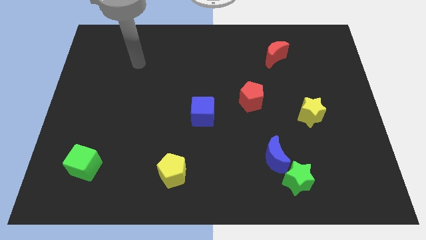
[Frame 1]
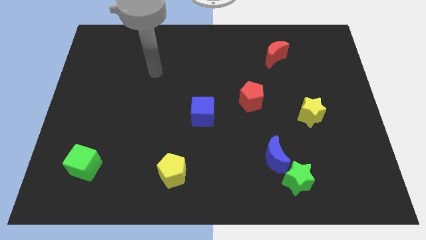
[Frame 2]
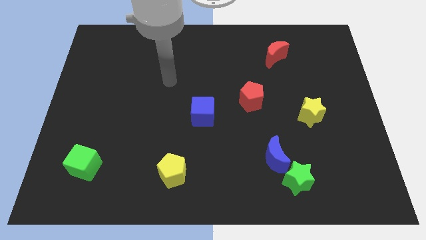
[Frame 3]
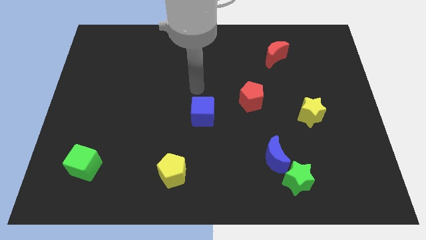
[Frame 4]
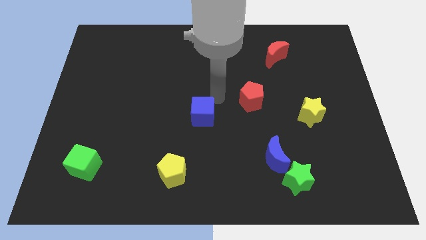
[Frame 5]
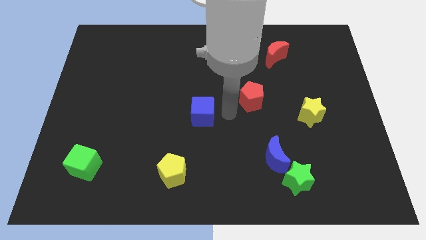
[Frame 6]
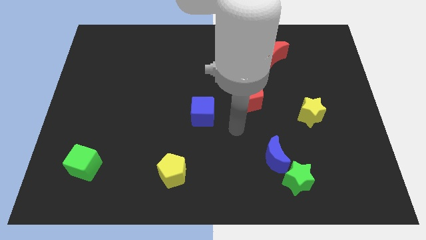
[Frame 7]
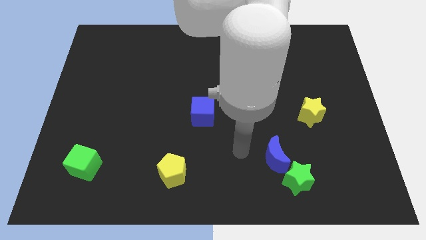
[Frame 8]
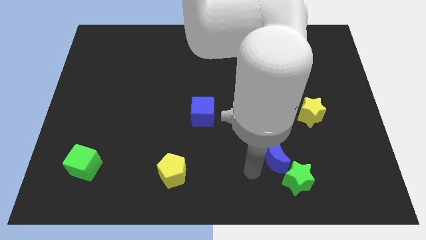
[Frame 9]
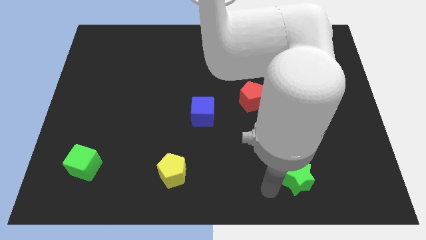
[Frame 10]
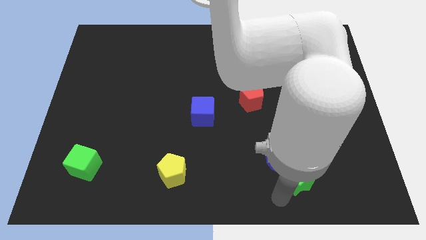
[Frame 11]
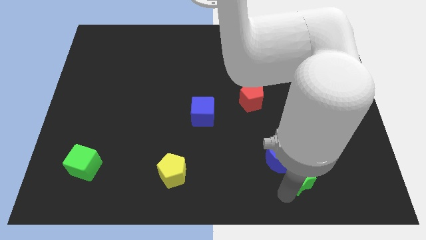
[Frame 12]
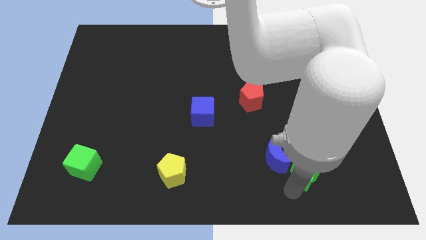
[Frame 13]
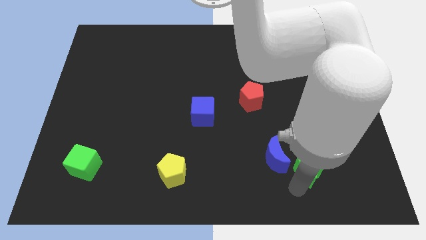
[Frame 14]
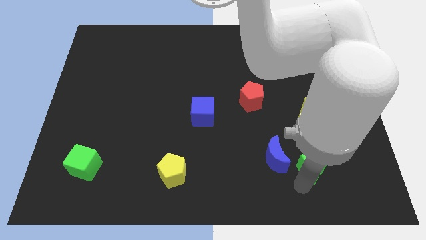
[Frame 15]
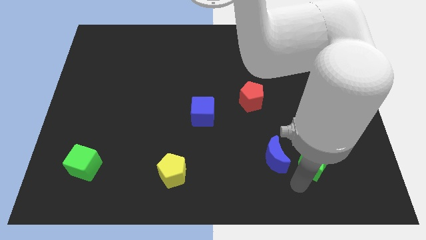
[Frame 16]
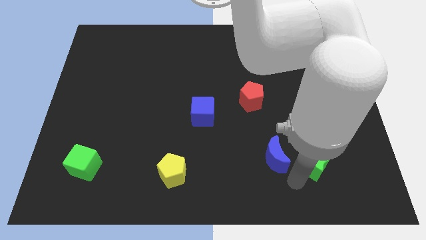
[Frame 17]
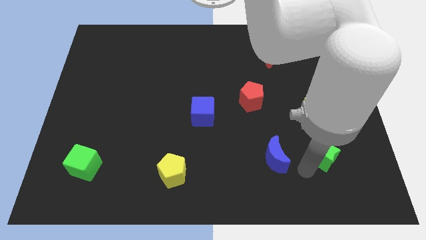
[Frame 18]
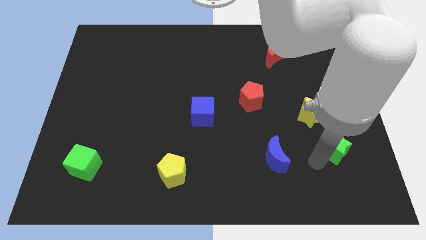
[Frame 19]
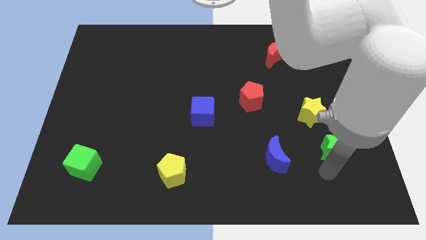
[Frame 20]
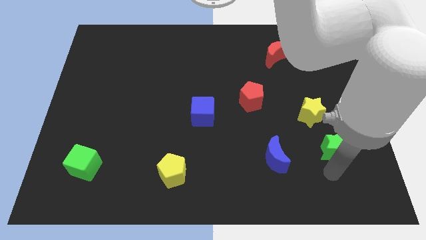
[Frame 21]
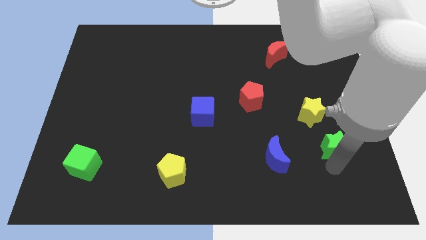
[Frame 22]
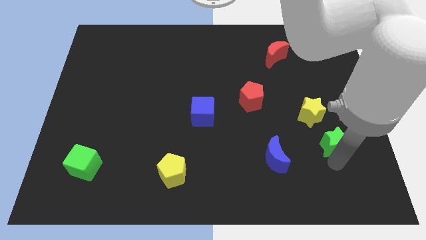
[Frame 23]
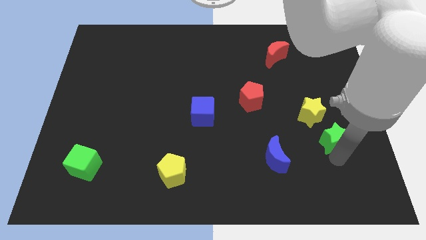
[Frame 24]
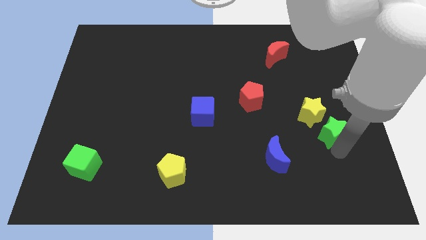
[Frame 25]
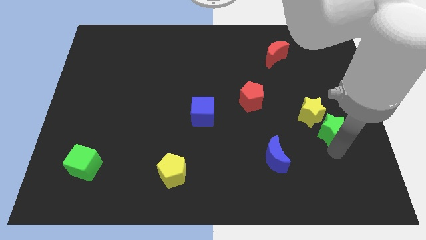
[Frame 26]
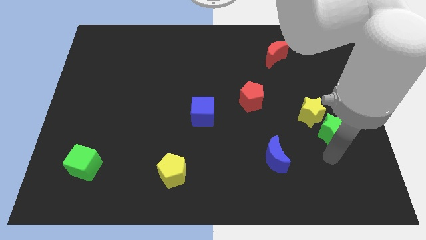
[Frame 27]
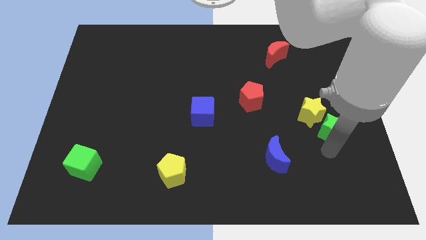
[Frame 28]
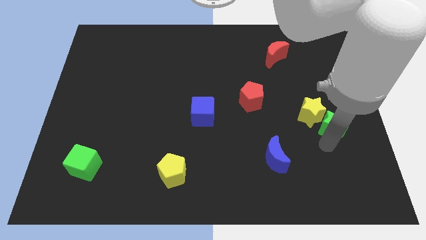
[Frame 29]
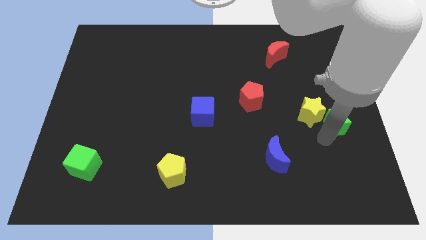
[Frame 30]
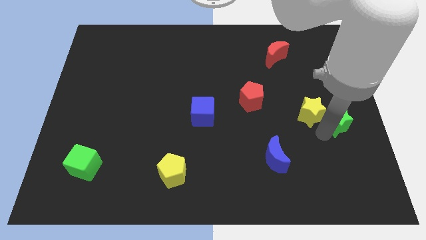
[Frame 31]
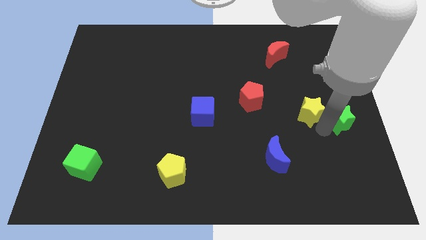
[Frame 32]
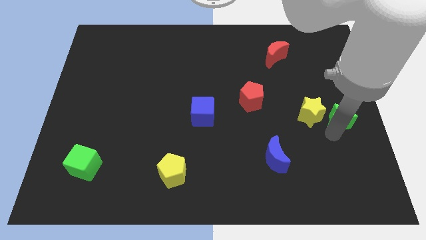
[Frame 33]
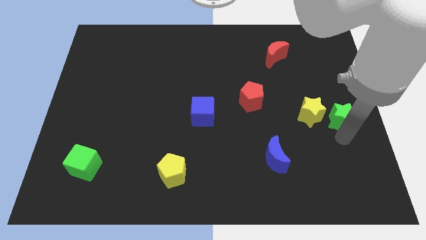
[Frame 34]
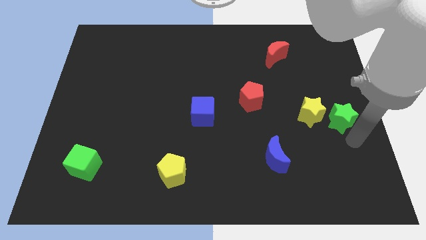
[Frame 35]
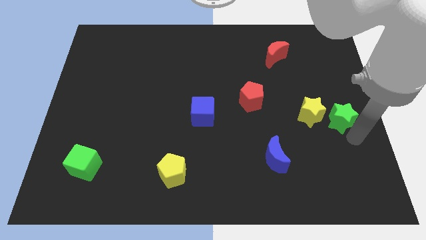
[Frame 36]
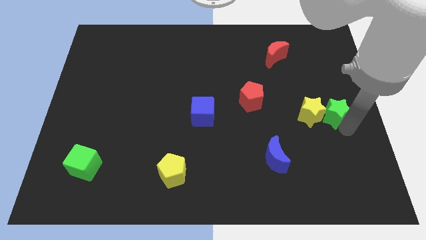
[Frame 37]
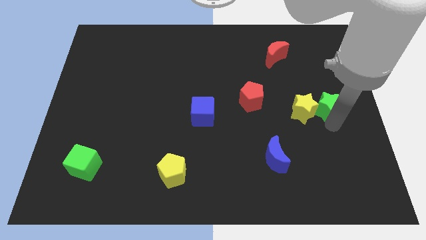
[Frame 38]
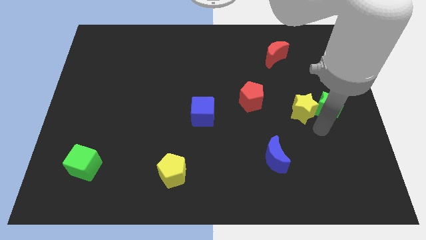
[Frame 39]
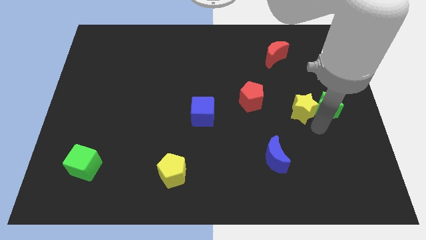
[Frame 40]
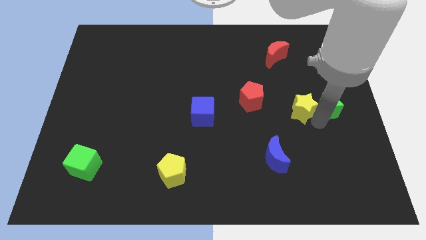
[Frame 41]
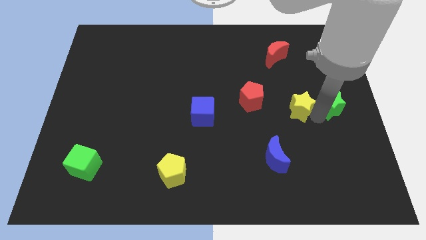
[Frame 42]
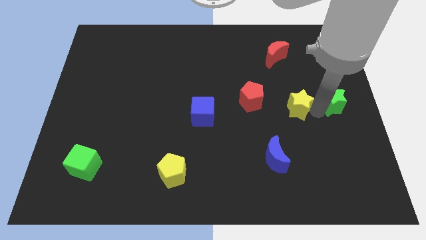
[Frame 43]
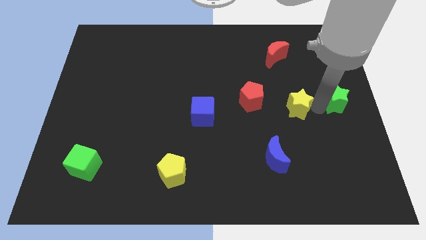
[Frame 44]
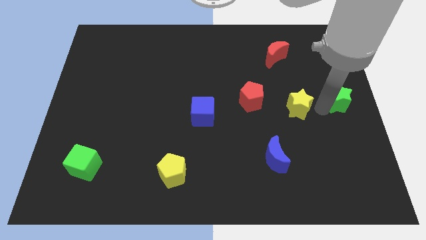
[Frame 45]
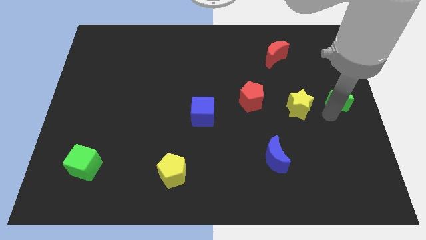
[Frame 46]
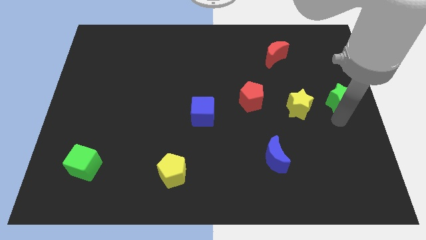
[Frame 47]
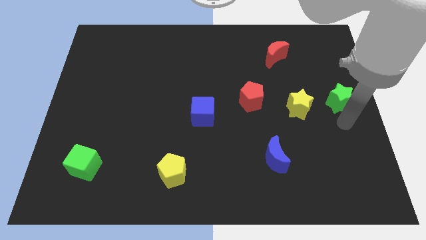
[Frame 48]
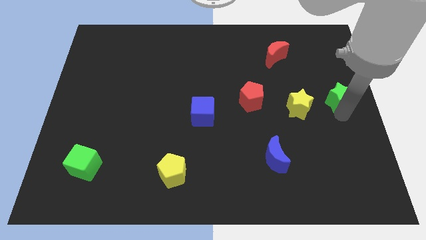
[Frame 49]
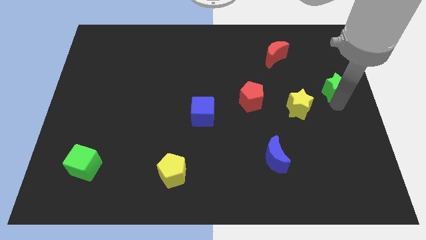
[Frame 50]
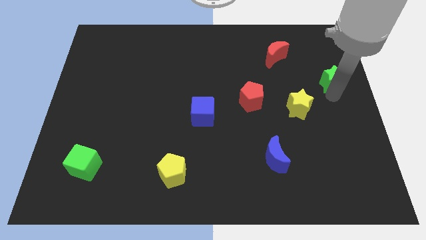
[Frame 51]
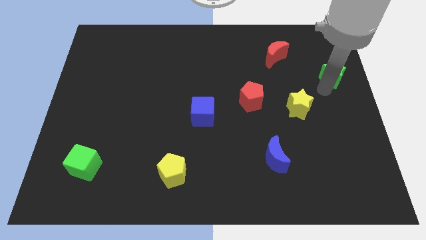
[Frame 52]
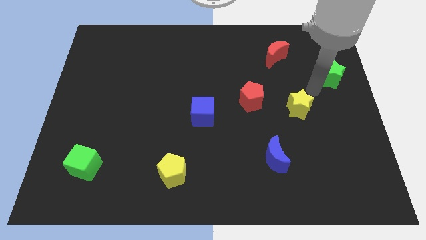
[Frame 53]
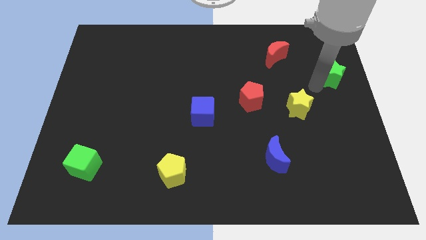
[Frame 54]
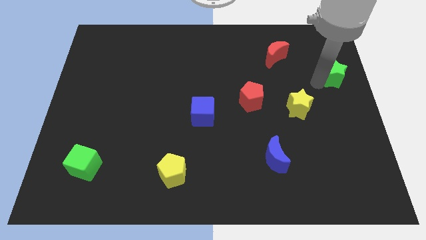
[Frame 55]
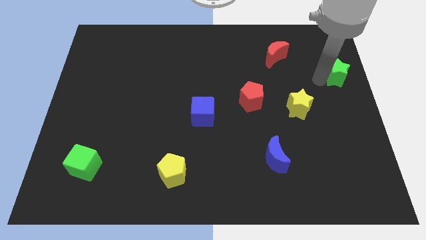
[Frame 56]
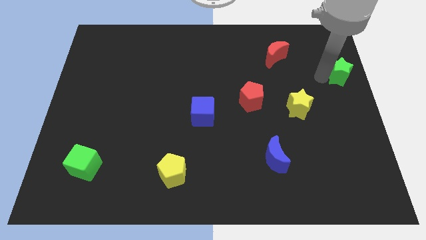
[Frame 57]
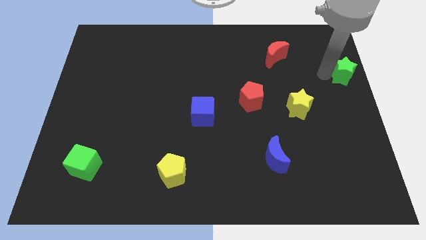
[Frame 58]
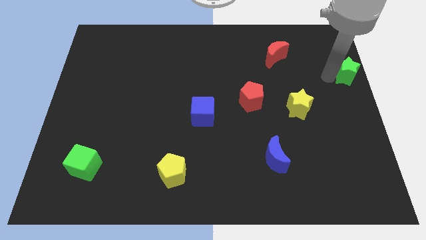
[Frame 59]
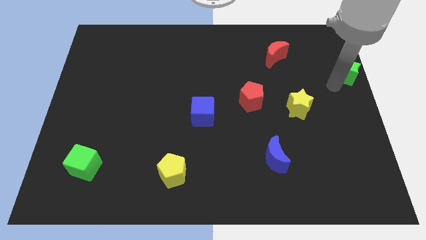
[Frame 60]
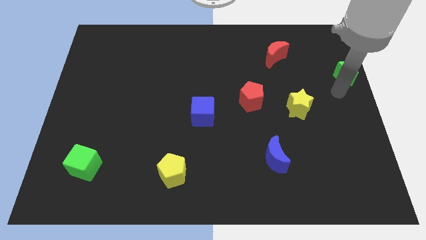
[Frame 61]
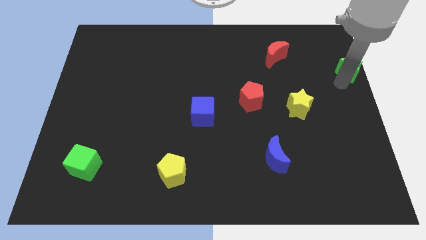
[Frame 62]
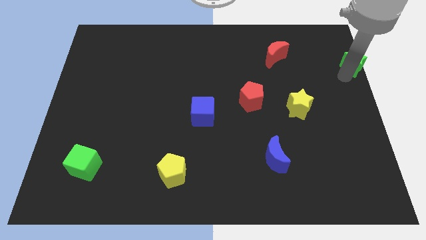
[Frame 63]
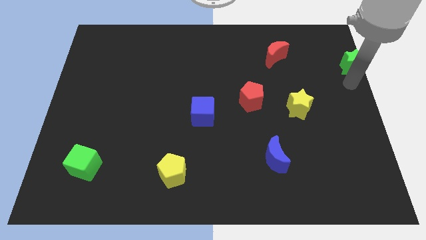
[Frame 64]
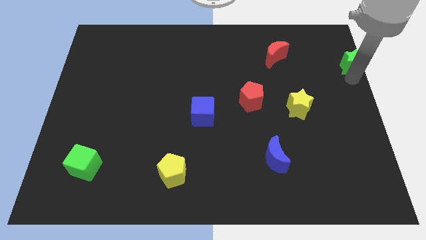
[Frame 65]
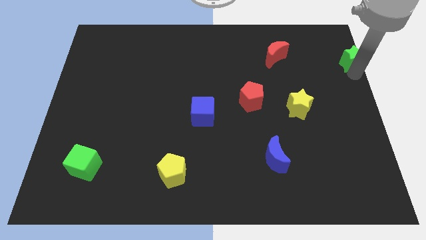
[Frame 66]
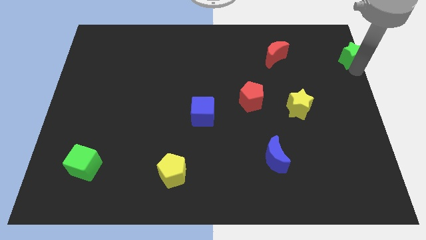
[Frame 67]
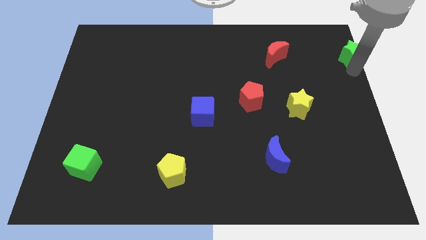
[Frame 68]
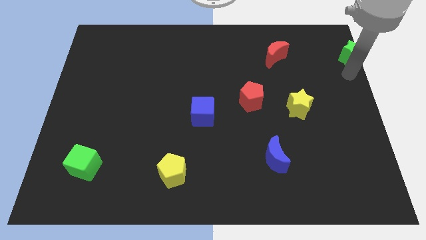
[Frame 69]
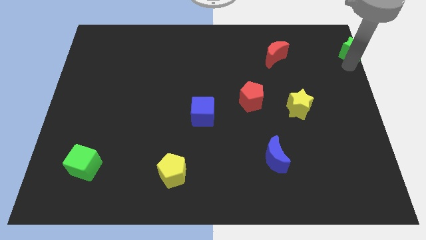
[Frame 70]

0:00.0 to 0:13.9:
move the green star to the top right of the board
